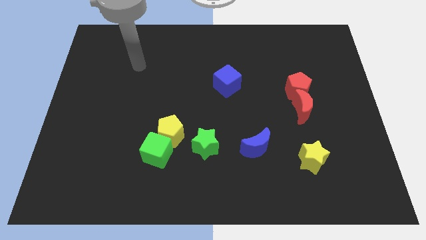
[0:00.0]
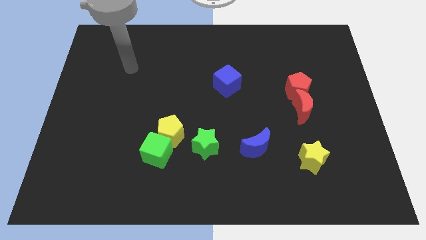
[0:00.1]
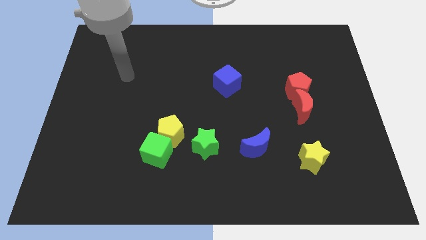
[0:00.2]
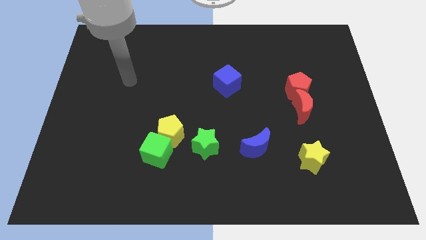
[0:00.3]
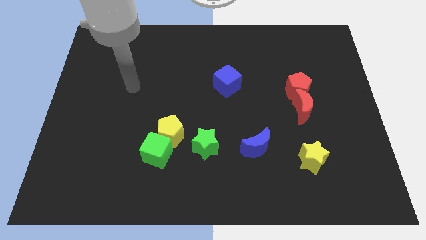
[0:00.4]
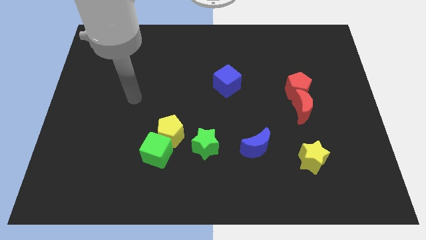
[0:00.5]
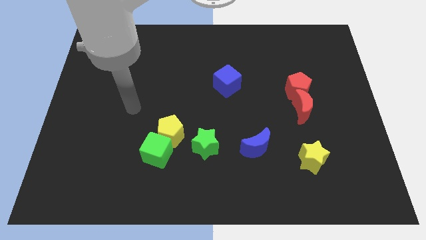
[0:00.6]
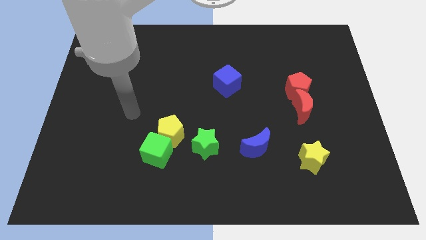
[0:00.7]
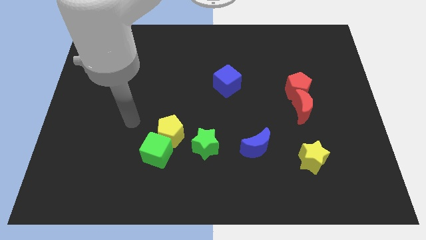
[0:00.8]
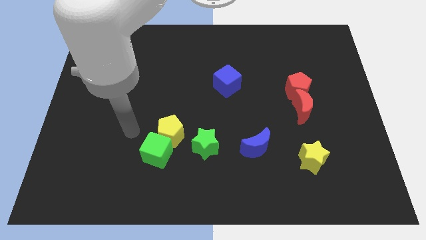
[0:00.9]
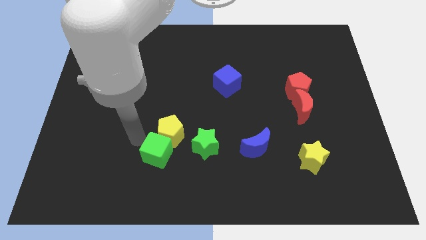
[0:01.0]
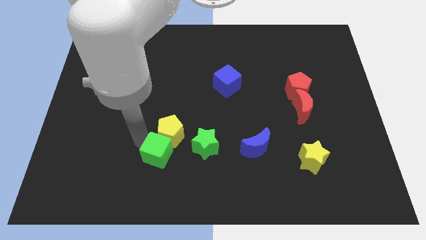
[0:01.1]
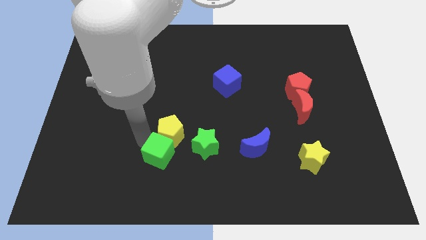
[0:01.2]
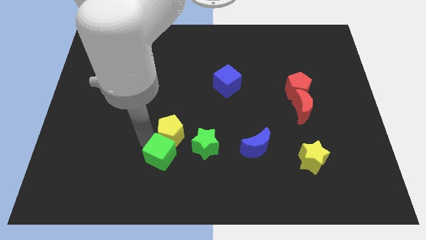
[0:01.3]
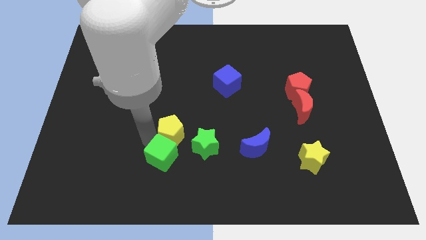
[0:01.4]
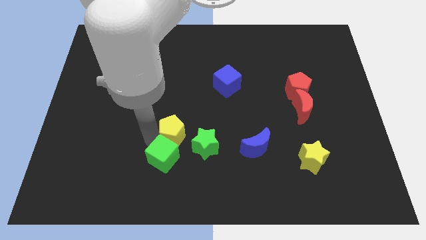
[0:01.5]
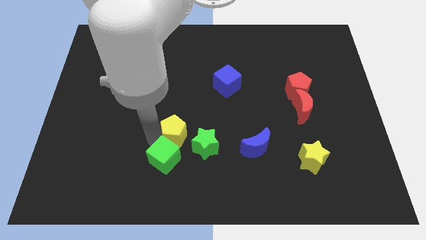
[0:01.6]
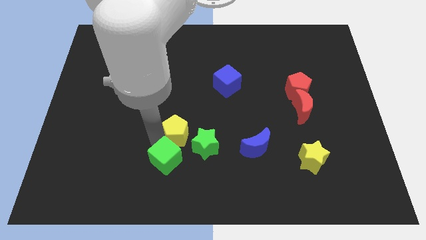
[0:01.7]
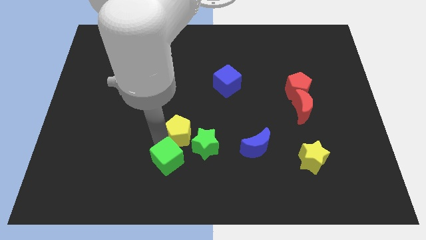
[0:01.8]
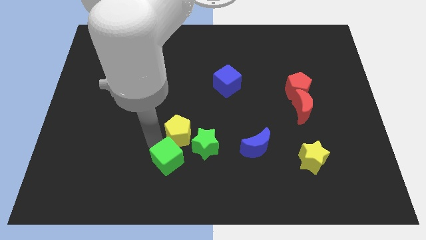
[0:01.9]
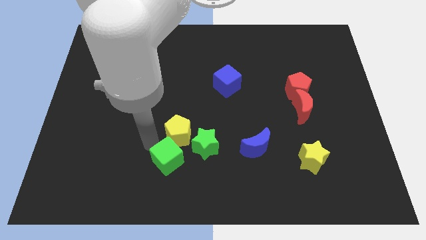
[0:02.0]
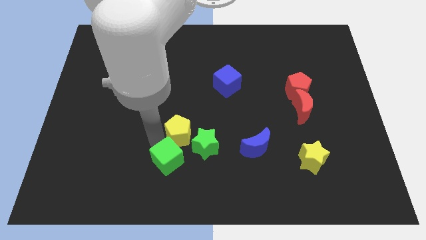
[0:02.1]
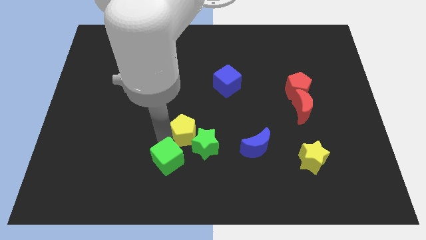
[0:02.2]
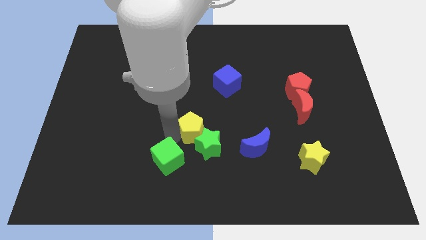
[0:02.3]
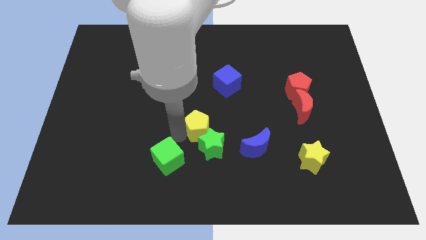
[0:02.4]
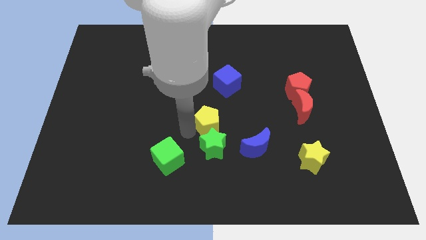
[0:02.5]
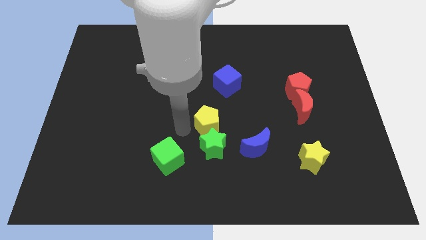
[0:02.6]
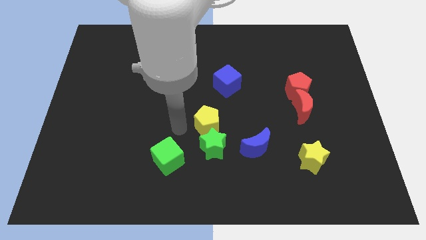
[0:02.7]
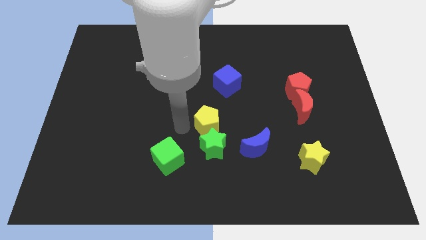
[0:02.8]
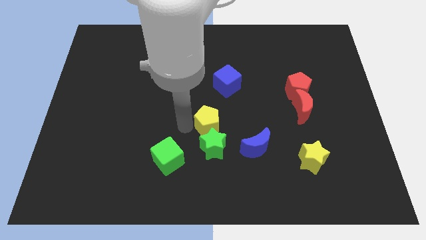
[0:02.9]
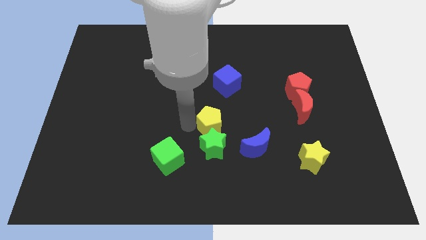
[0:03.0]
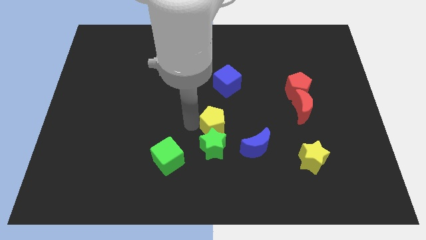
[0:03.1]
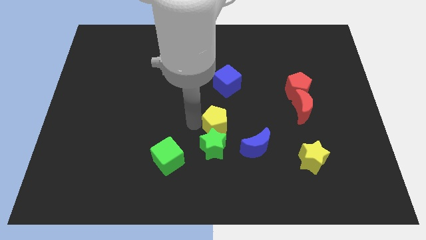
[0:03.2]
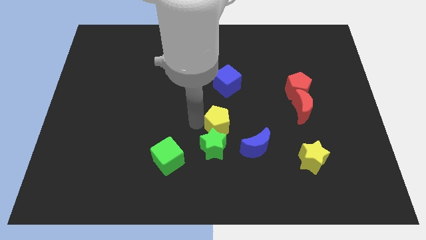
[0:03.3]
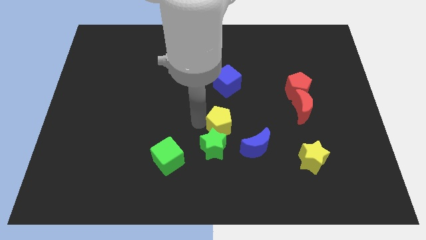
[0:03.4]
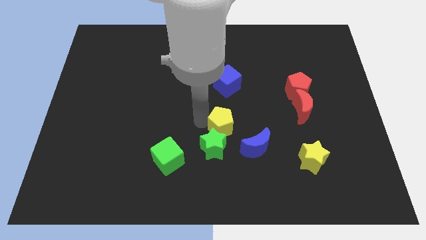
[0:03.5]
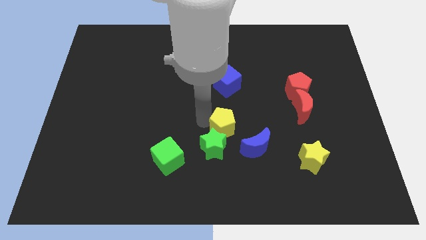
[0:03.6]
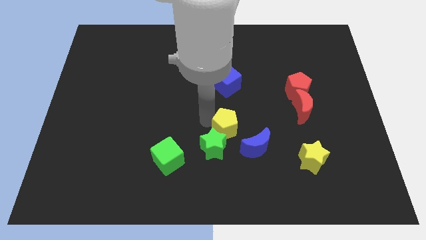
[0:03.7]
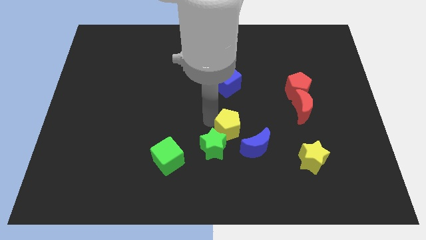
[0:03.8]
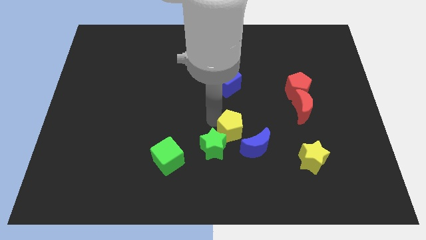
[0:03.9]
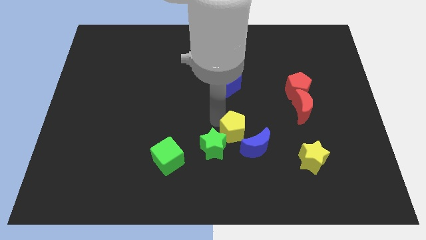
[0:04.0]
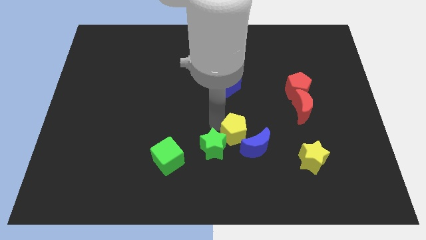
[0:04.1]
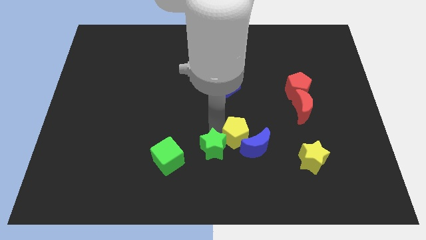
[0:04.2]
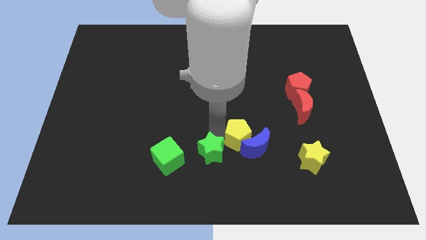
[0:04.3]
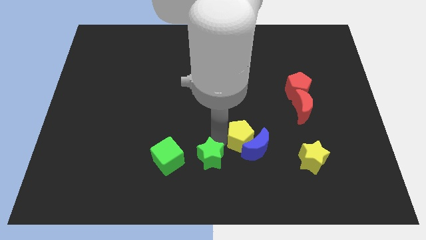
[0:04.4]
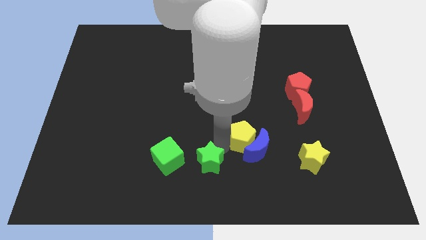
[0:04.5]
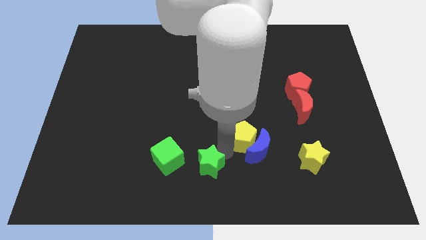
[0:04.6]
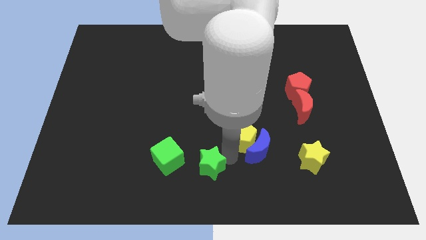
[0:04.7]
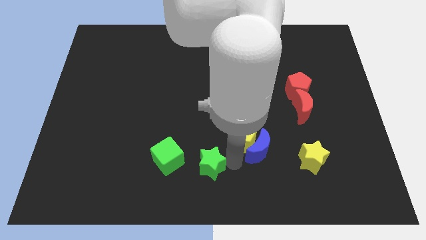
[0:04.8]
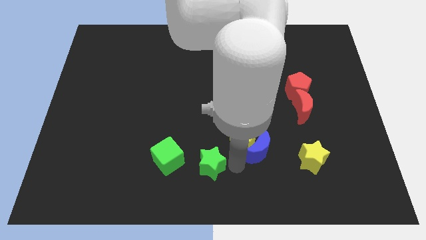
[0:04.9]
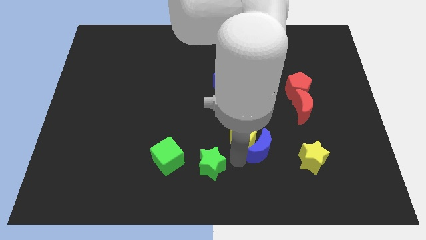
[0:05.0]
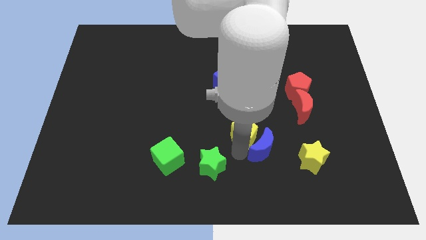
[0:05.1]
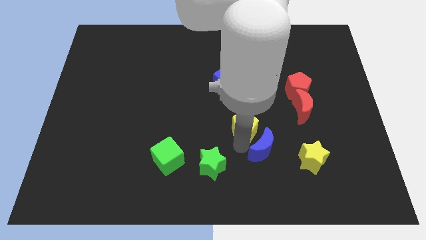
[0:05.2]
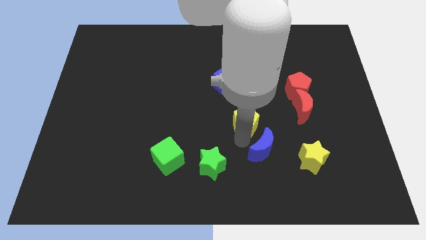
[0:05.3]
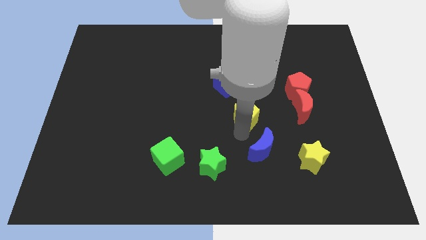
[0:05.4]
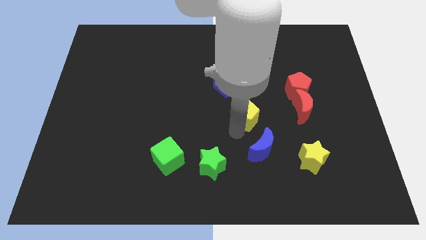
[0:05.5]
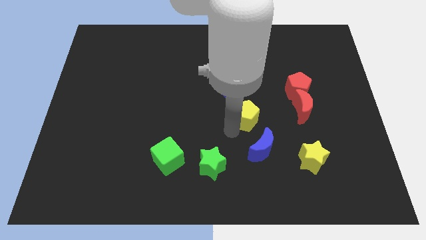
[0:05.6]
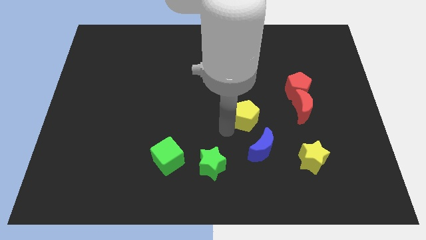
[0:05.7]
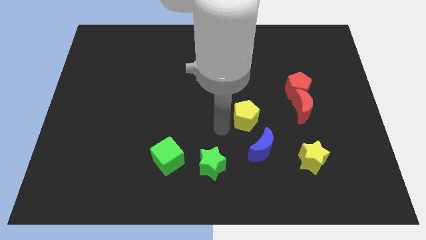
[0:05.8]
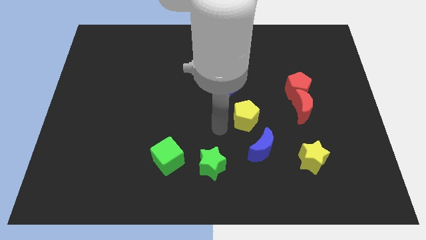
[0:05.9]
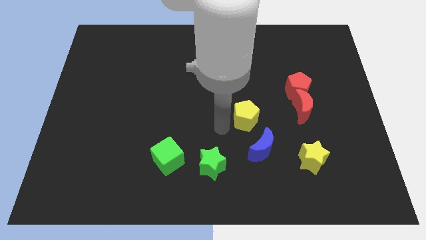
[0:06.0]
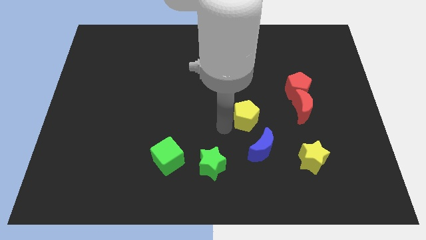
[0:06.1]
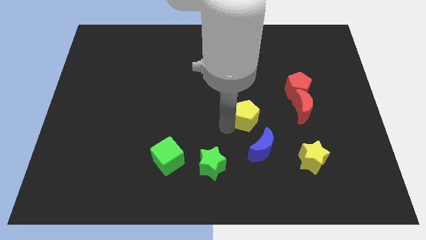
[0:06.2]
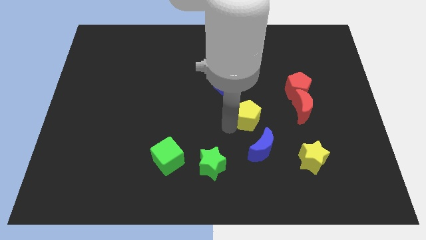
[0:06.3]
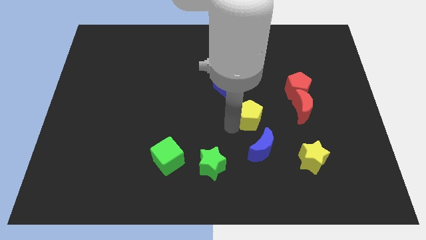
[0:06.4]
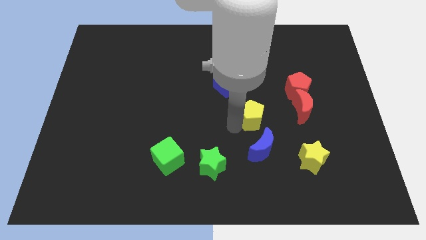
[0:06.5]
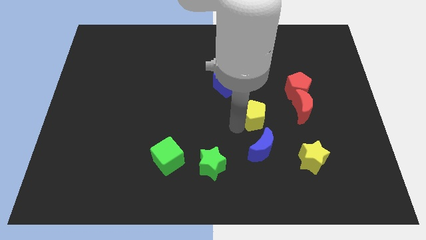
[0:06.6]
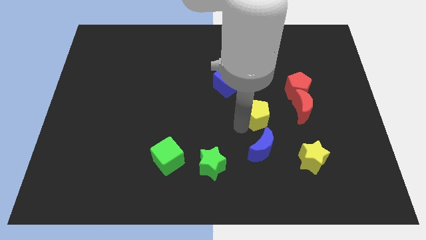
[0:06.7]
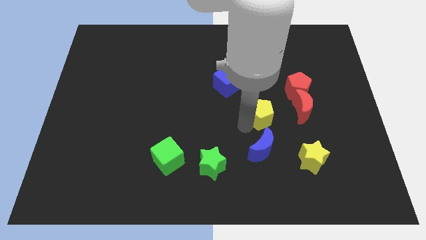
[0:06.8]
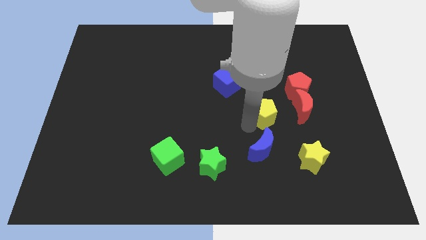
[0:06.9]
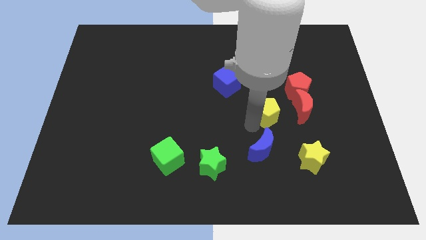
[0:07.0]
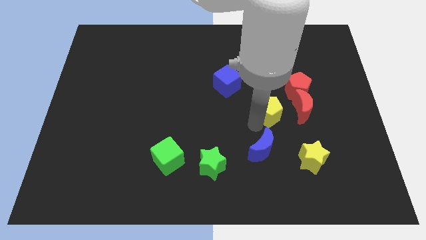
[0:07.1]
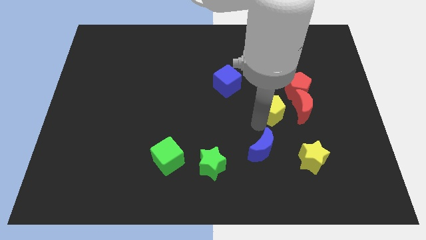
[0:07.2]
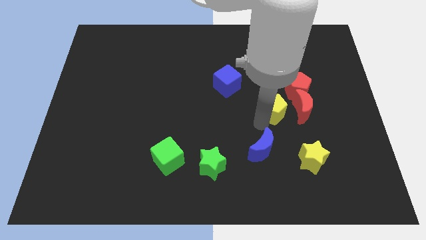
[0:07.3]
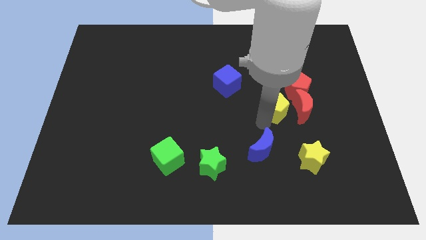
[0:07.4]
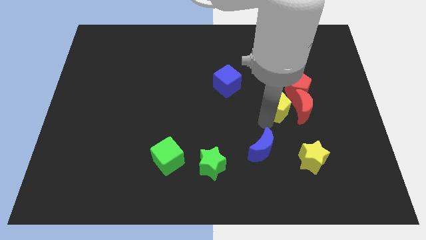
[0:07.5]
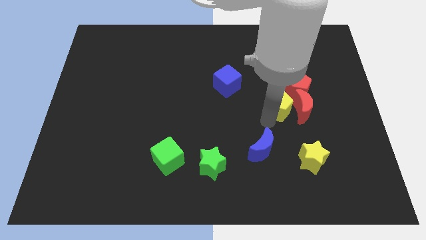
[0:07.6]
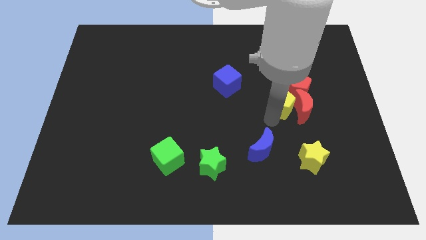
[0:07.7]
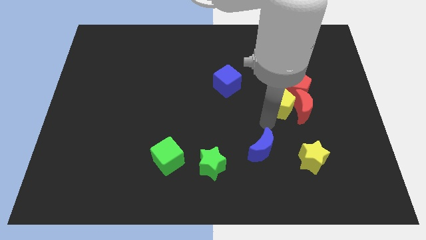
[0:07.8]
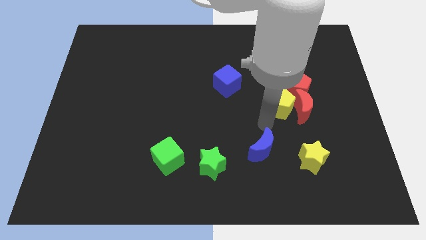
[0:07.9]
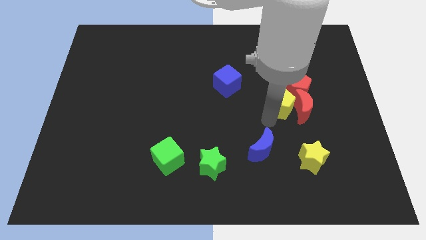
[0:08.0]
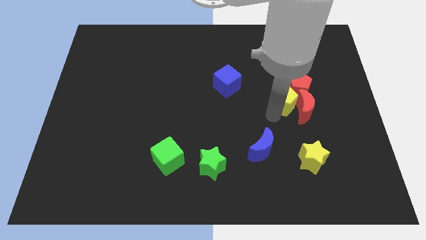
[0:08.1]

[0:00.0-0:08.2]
push the yellow pentagon to the red pentagon
